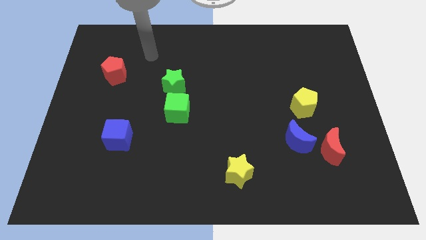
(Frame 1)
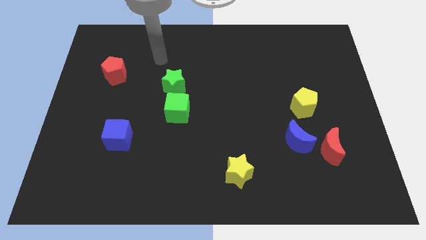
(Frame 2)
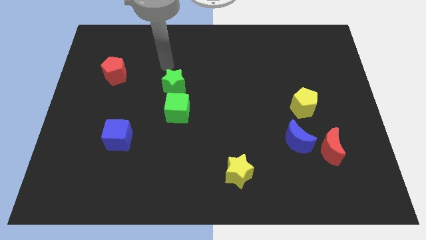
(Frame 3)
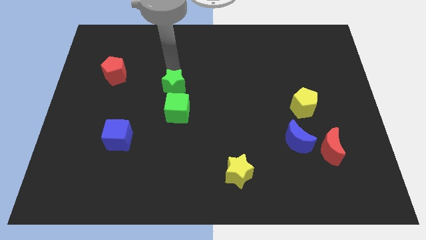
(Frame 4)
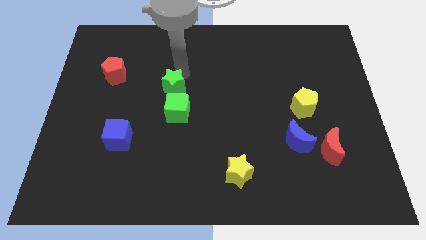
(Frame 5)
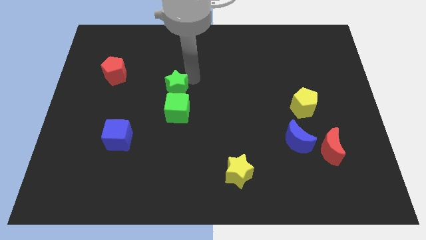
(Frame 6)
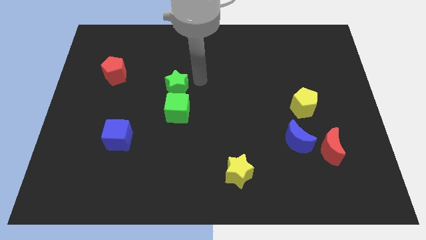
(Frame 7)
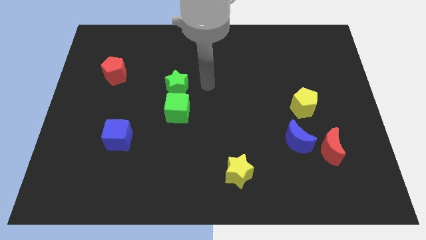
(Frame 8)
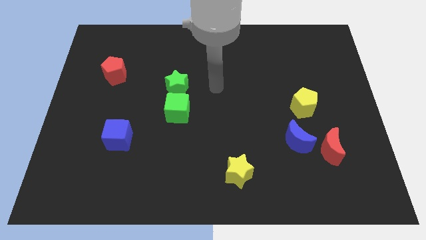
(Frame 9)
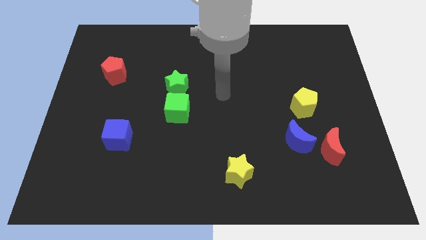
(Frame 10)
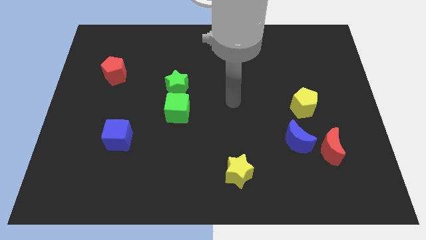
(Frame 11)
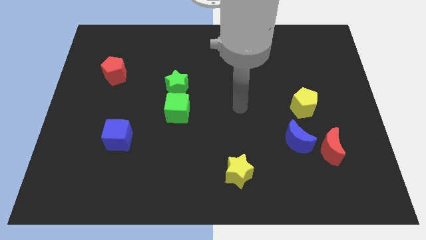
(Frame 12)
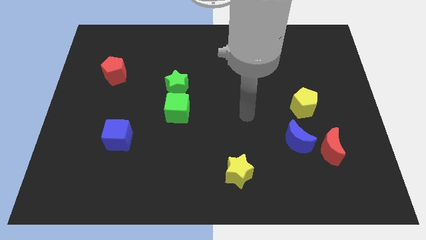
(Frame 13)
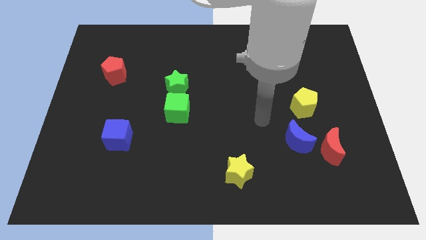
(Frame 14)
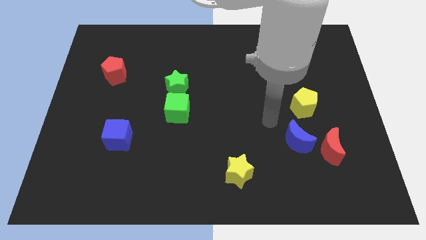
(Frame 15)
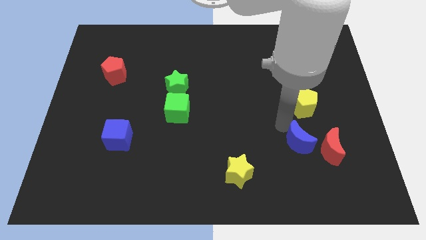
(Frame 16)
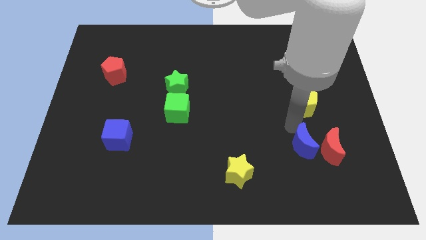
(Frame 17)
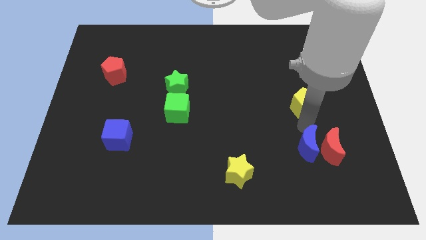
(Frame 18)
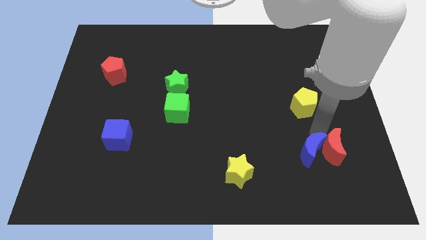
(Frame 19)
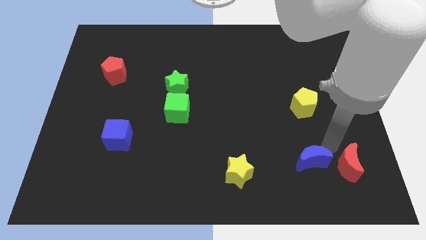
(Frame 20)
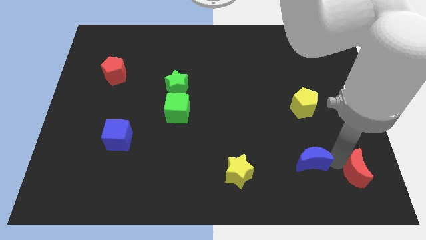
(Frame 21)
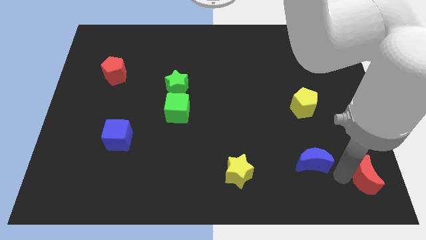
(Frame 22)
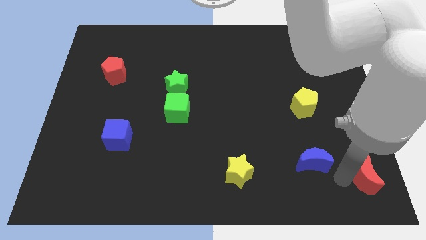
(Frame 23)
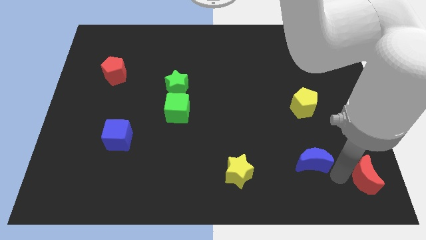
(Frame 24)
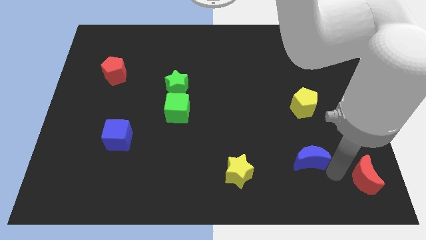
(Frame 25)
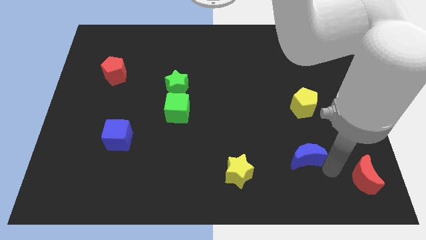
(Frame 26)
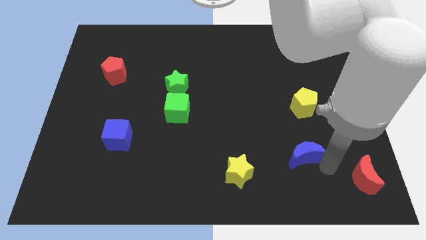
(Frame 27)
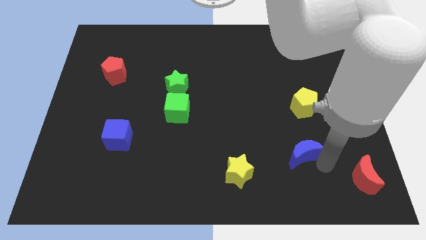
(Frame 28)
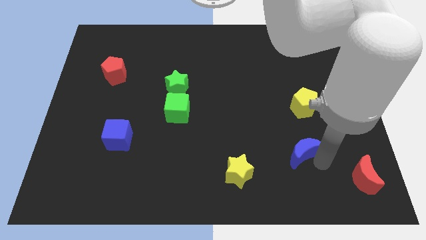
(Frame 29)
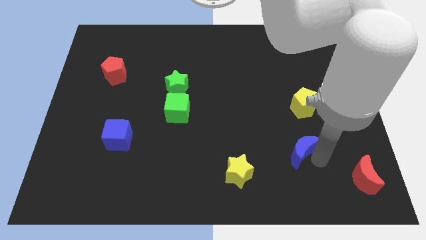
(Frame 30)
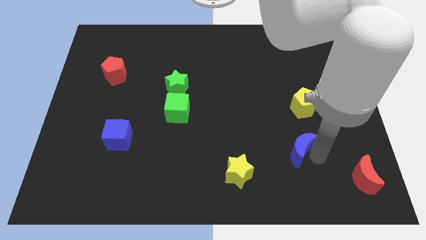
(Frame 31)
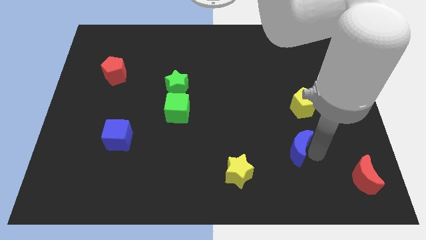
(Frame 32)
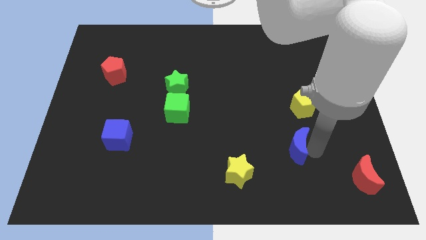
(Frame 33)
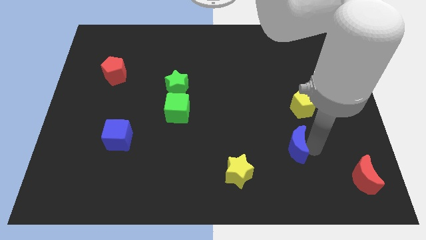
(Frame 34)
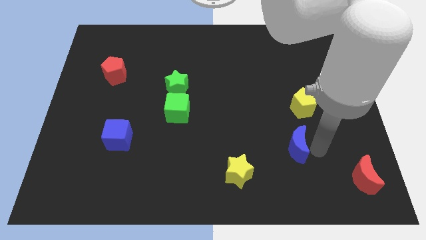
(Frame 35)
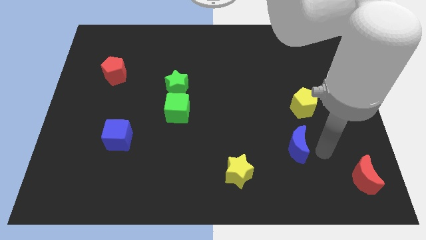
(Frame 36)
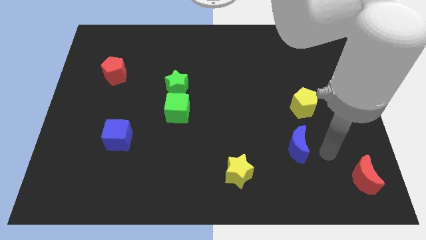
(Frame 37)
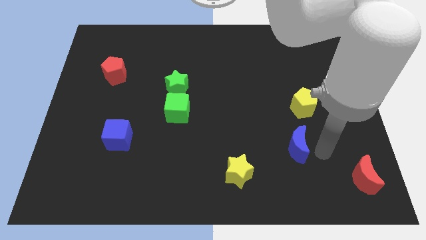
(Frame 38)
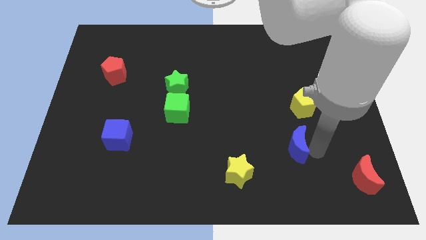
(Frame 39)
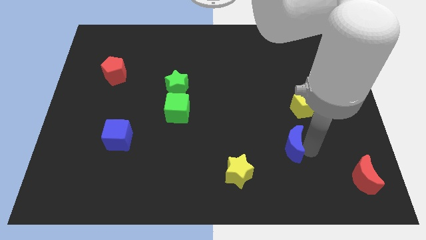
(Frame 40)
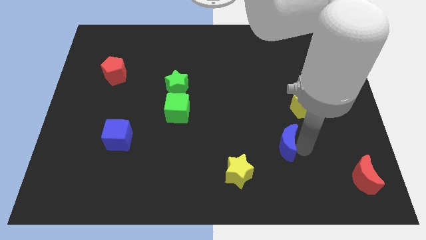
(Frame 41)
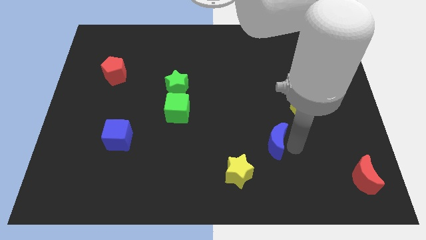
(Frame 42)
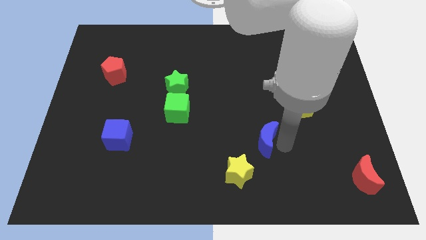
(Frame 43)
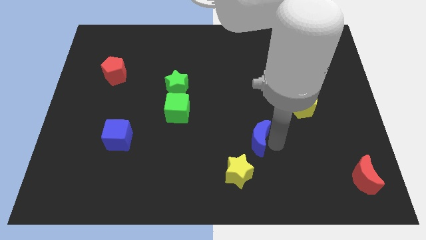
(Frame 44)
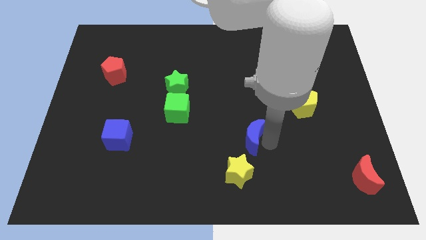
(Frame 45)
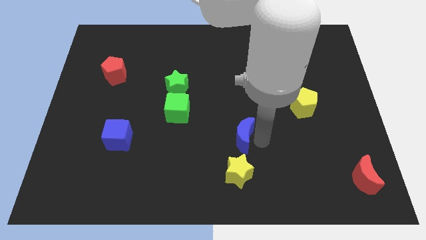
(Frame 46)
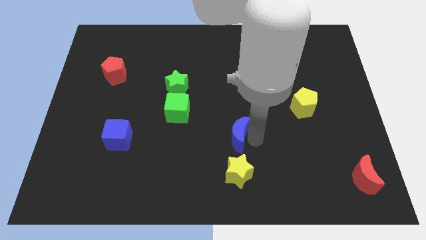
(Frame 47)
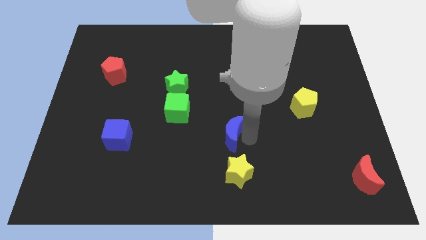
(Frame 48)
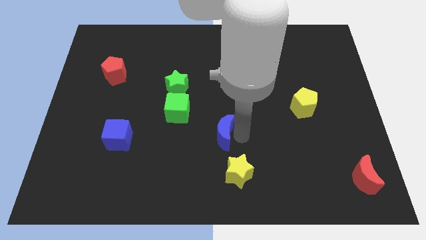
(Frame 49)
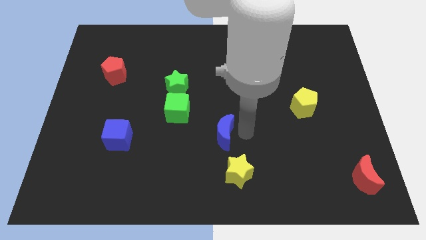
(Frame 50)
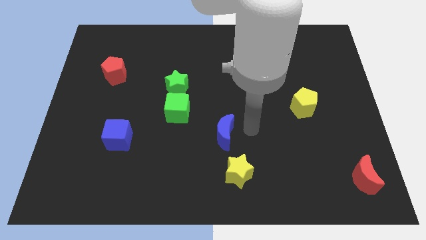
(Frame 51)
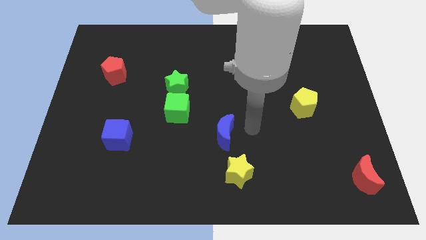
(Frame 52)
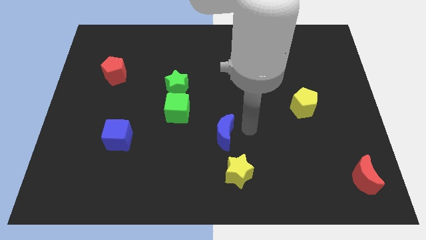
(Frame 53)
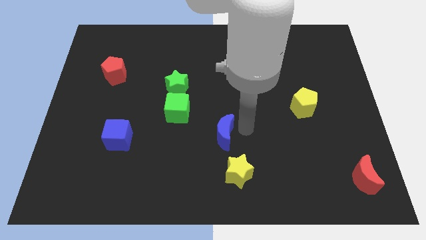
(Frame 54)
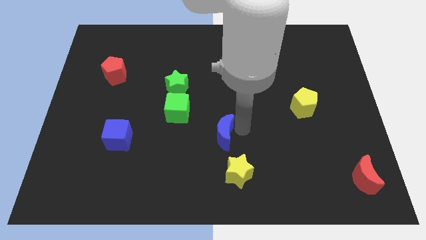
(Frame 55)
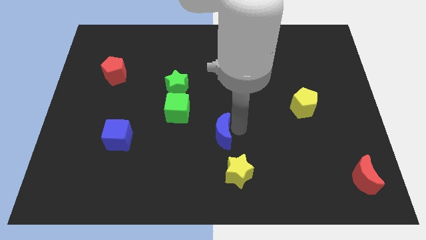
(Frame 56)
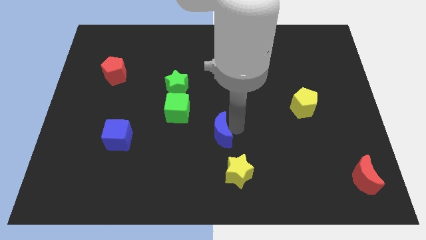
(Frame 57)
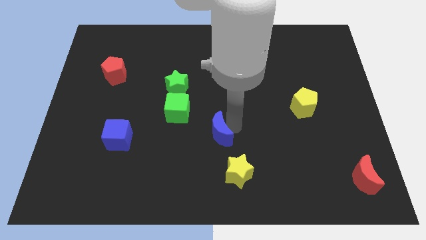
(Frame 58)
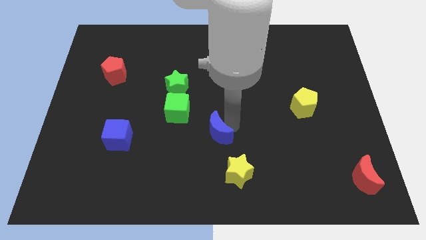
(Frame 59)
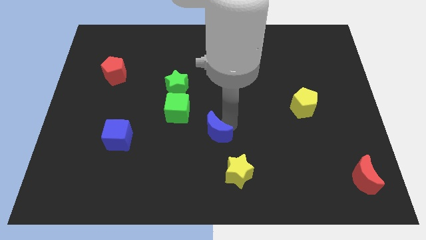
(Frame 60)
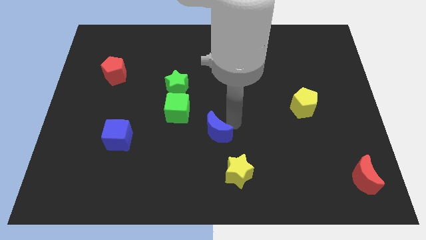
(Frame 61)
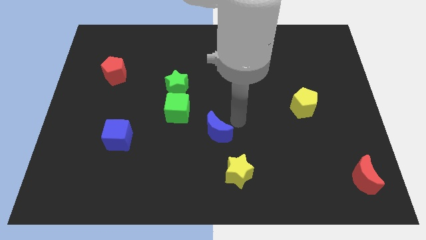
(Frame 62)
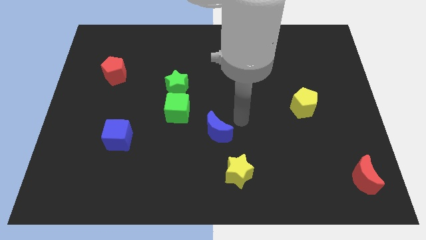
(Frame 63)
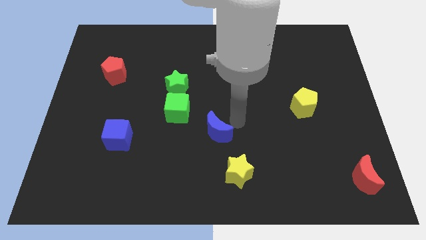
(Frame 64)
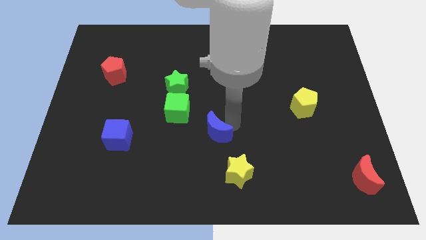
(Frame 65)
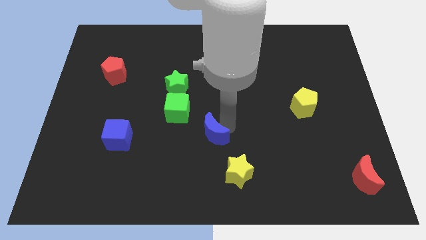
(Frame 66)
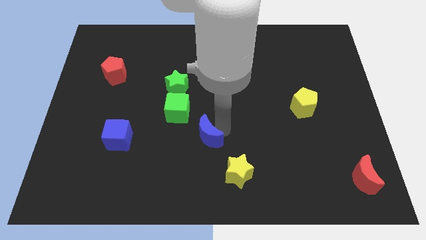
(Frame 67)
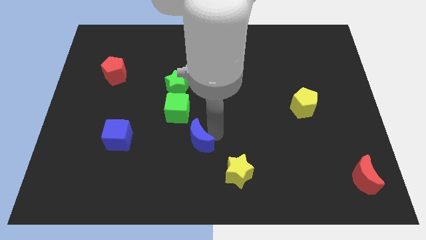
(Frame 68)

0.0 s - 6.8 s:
slide the blue moon left

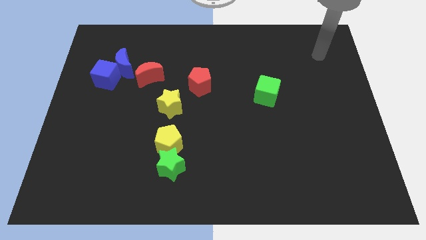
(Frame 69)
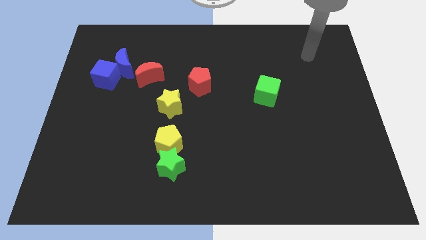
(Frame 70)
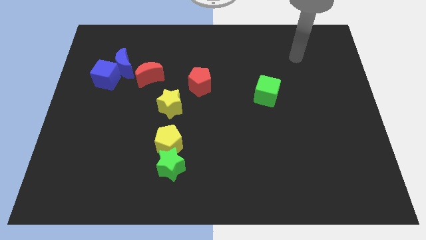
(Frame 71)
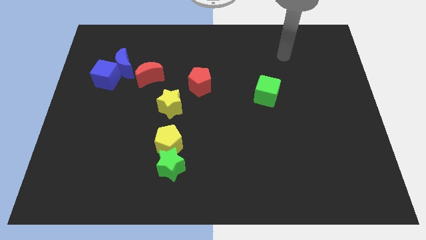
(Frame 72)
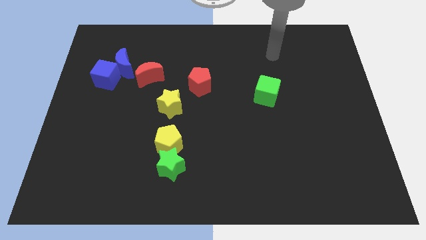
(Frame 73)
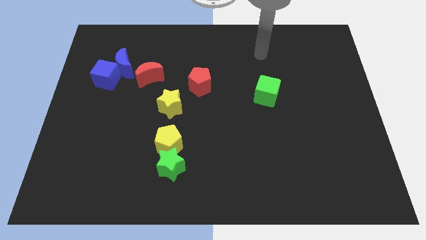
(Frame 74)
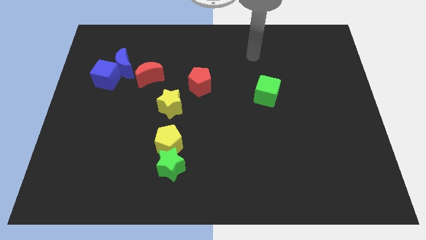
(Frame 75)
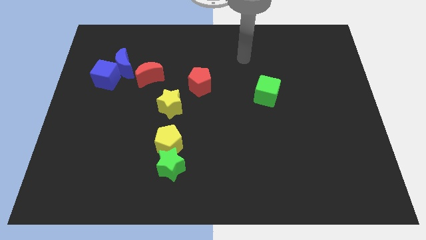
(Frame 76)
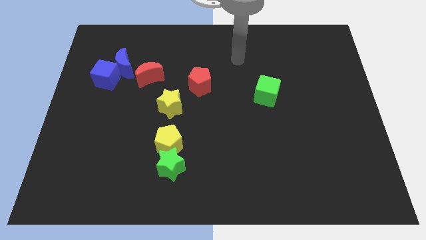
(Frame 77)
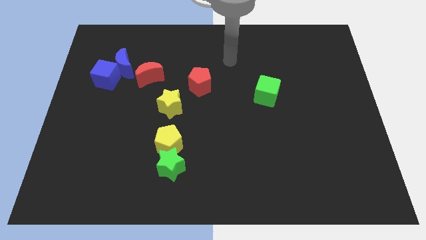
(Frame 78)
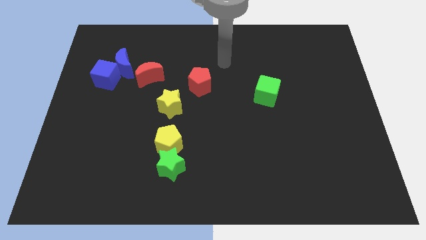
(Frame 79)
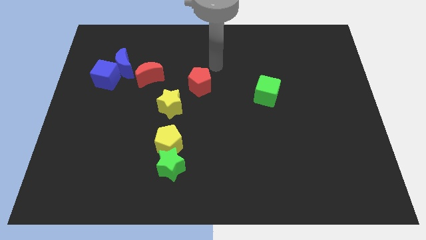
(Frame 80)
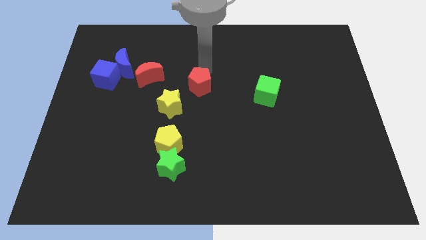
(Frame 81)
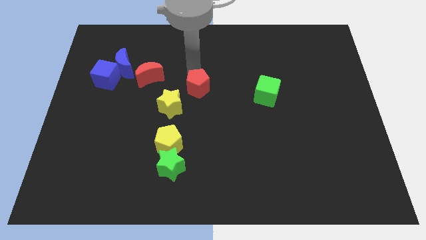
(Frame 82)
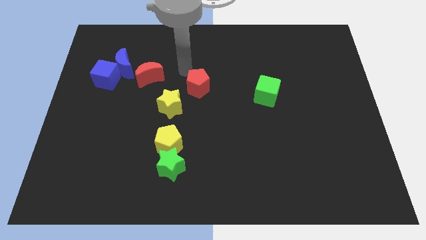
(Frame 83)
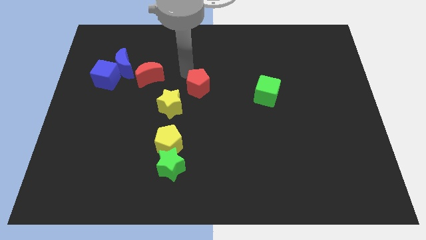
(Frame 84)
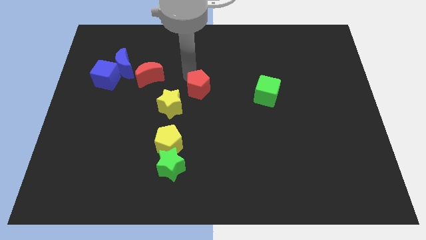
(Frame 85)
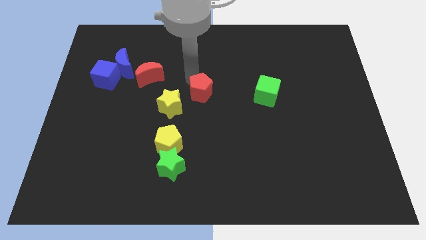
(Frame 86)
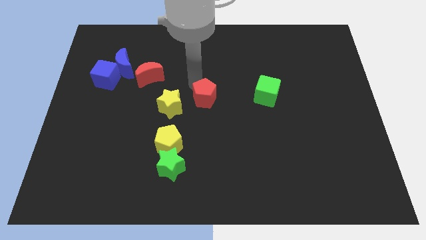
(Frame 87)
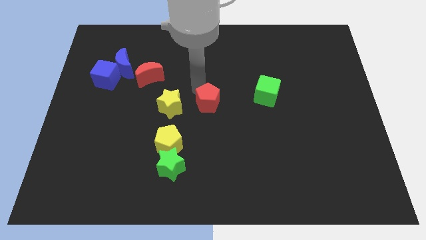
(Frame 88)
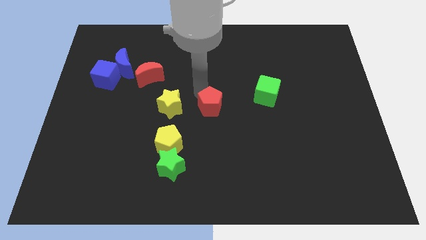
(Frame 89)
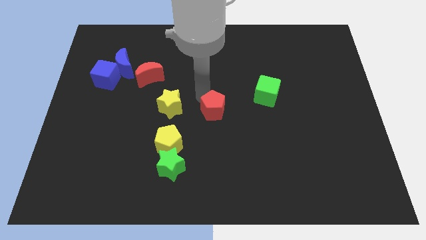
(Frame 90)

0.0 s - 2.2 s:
slightly move the red pentagon diagonally downwards and right
